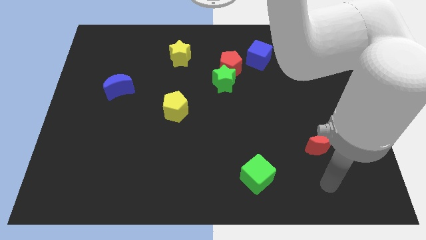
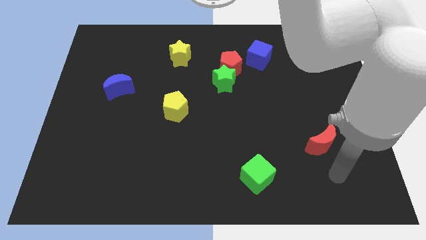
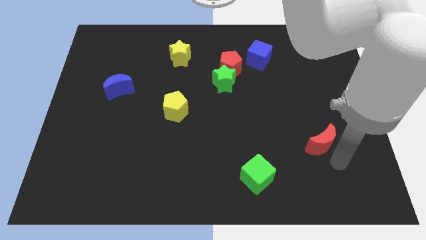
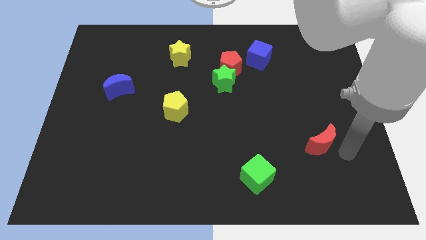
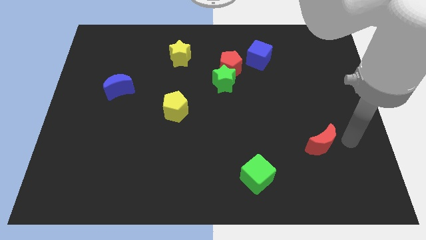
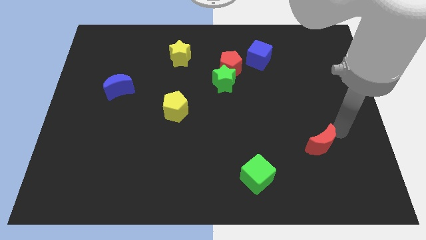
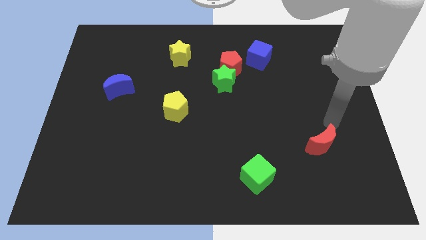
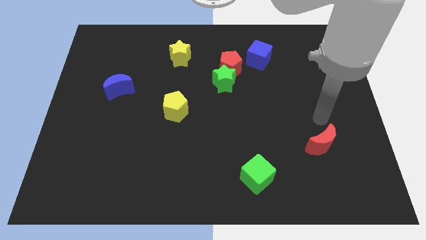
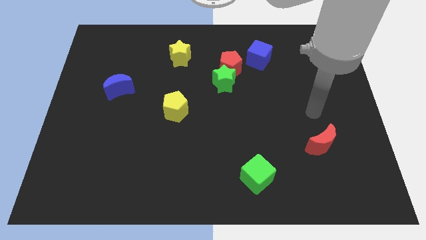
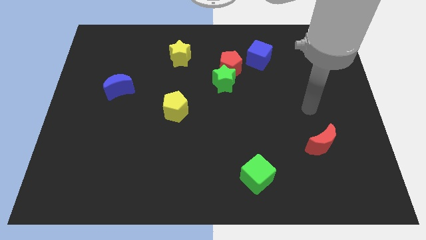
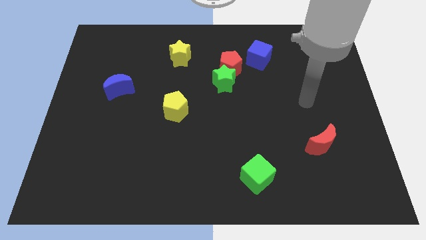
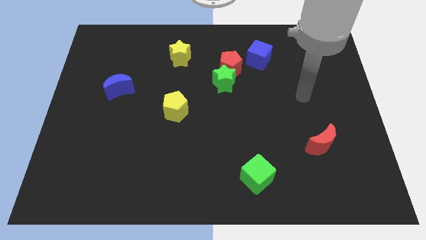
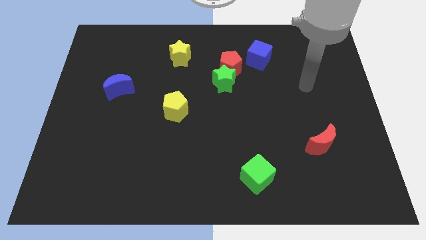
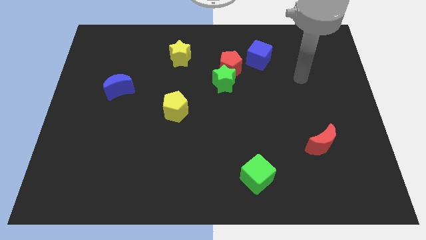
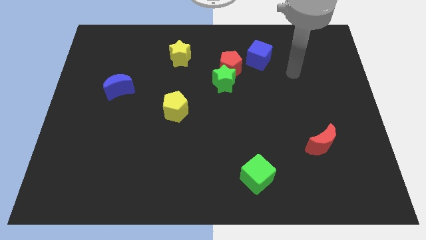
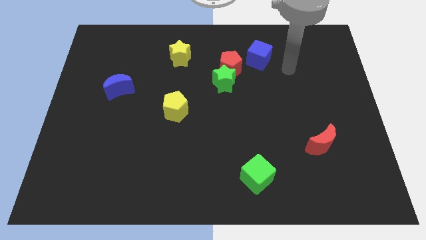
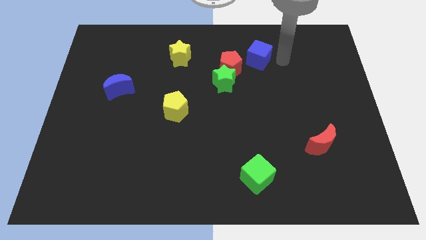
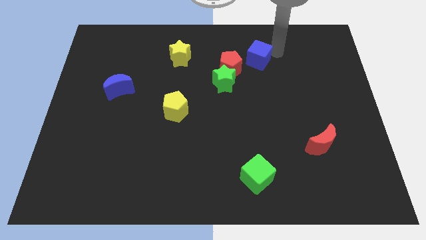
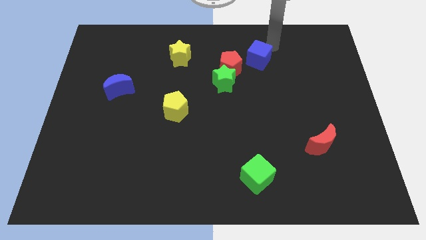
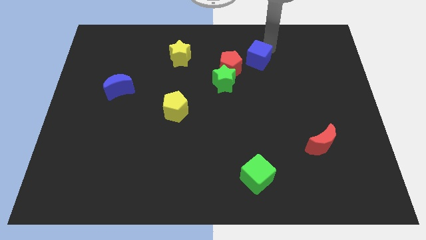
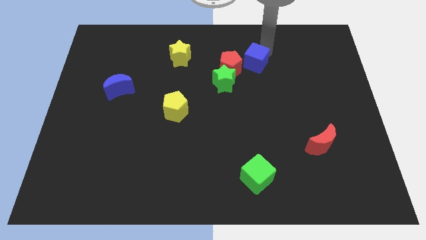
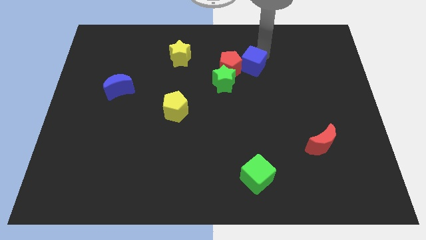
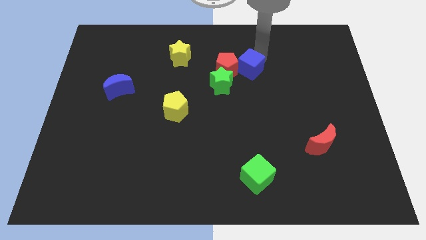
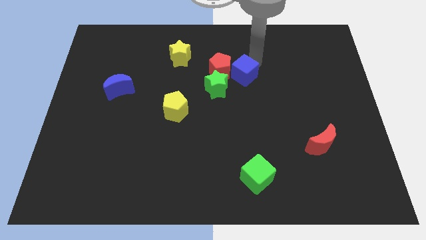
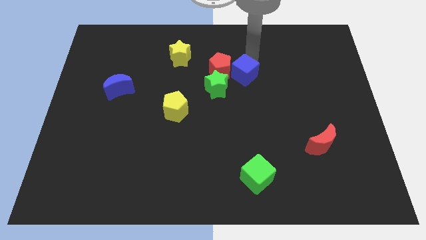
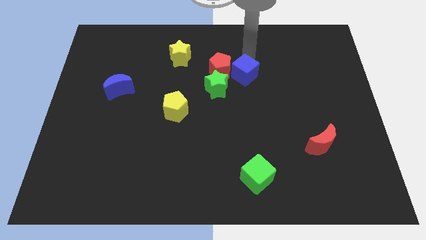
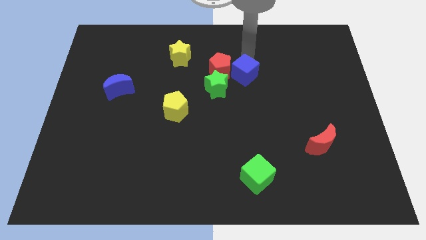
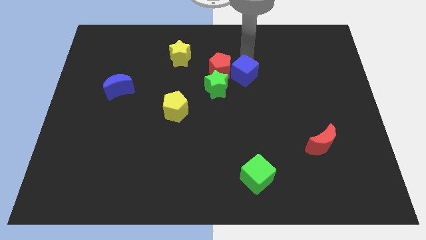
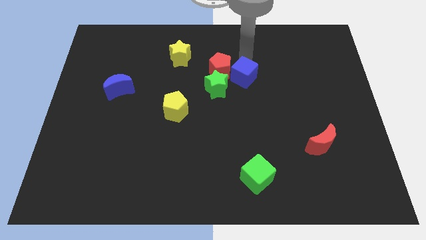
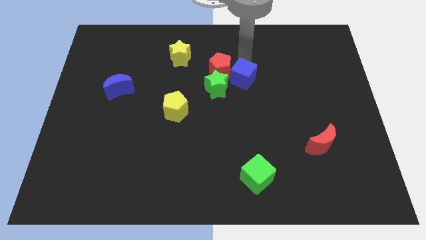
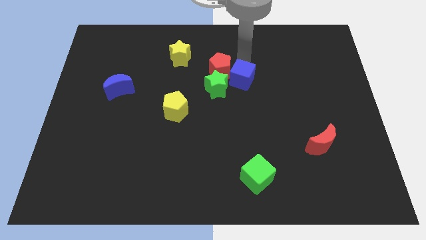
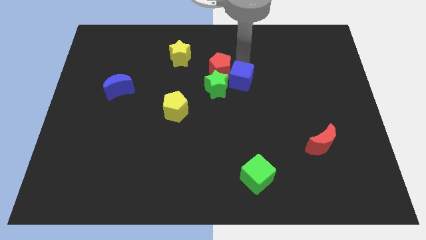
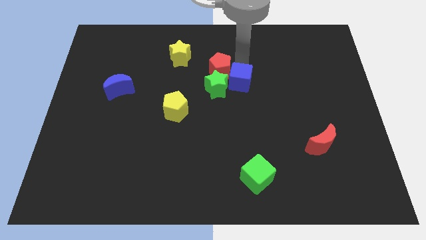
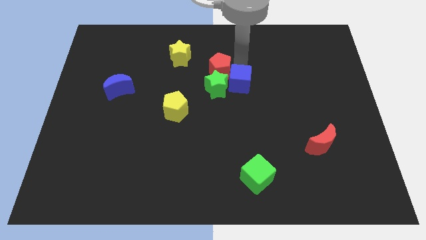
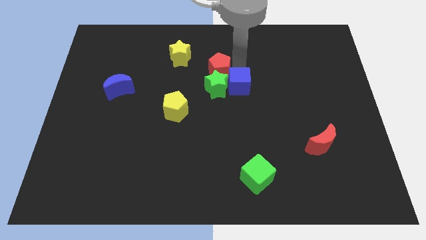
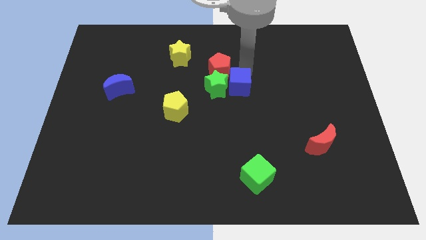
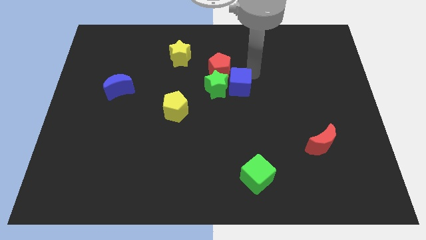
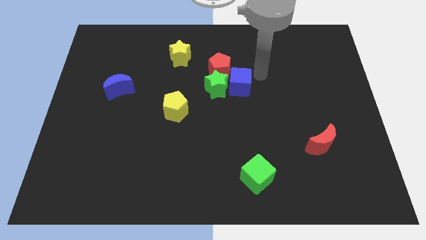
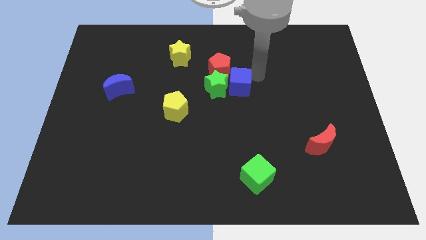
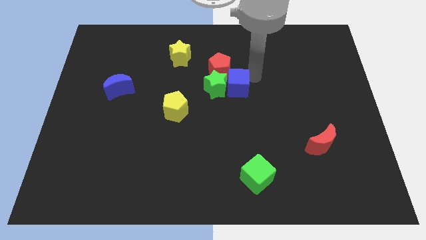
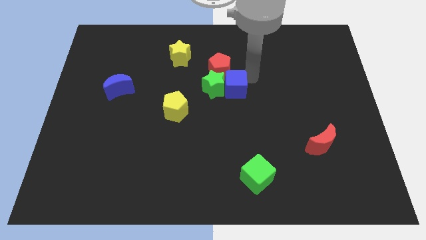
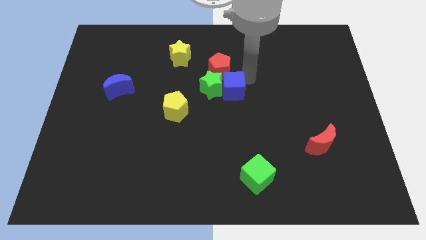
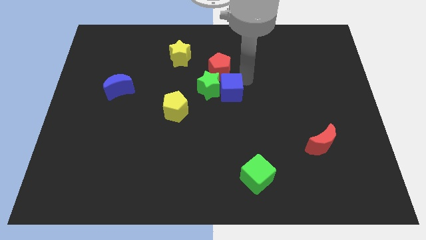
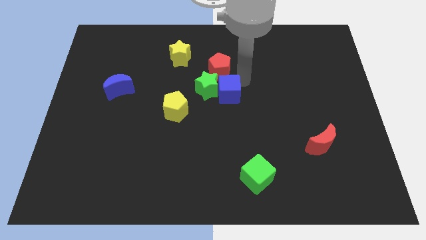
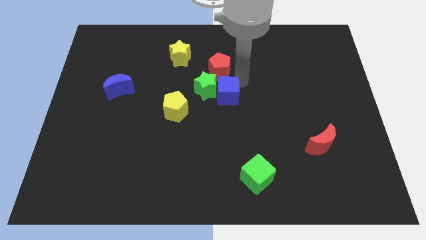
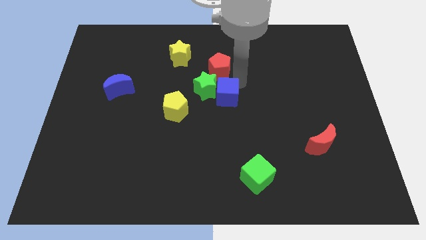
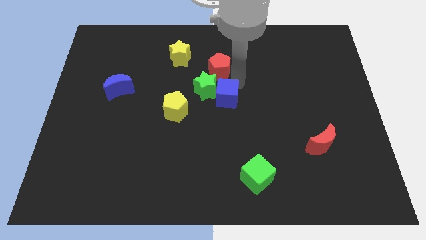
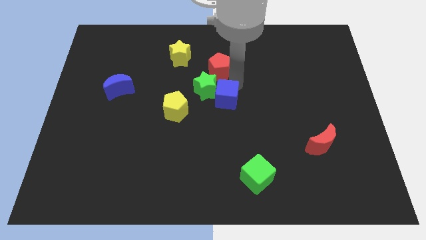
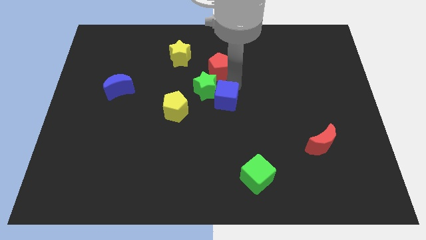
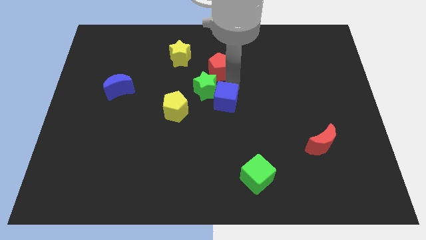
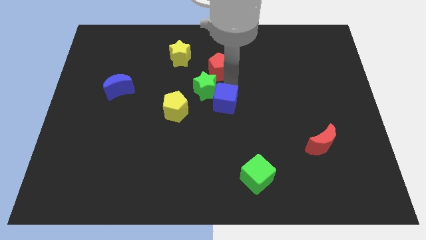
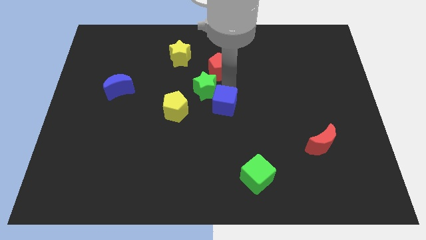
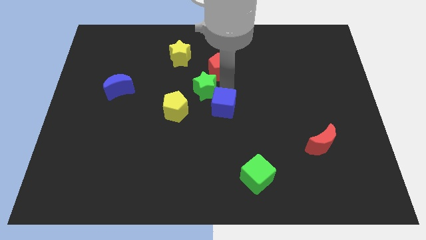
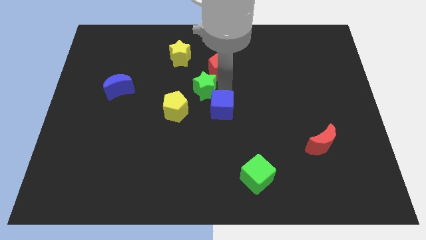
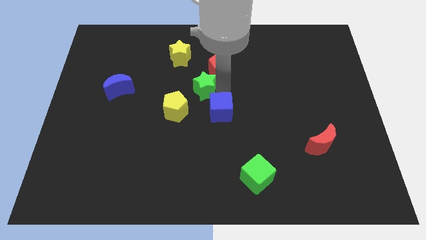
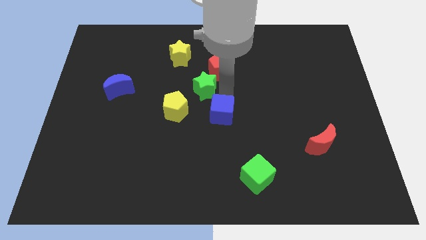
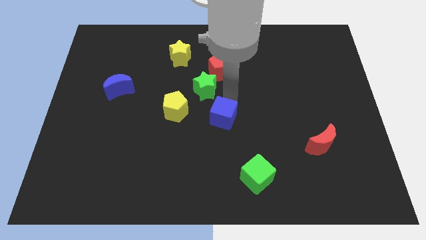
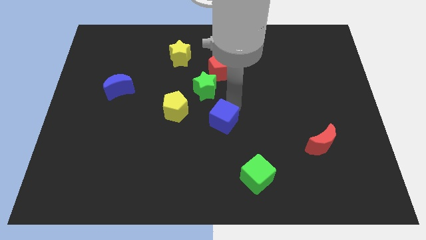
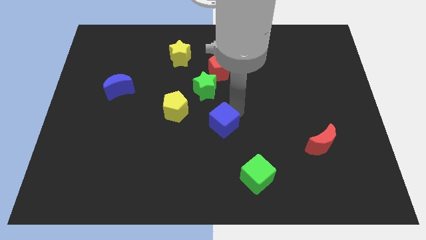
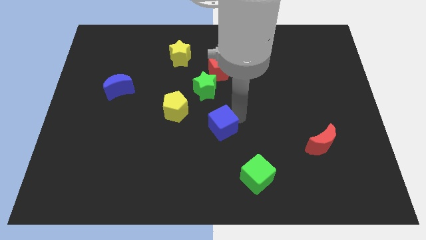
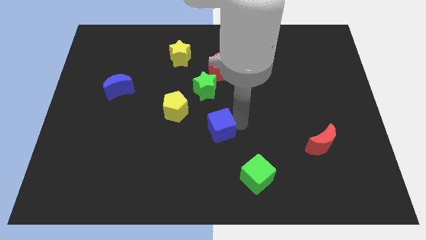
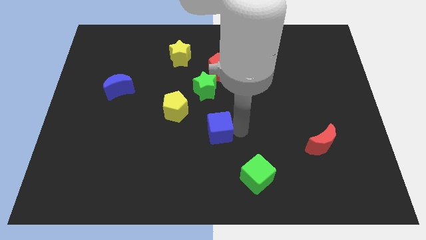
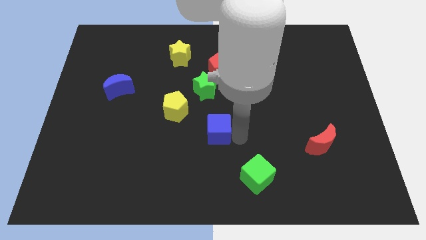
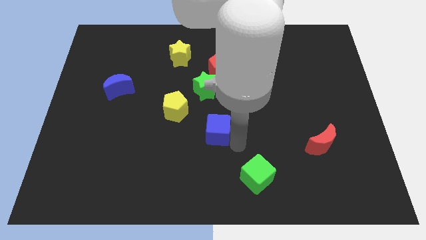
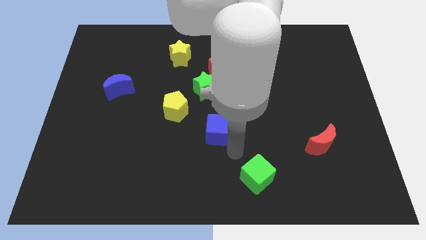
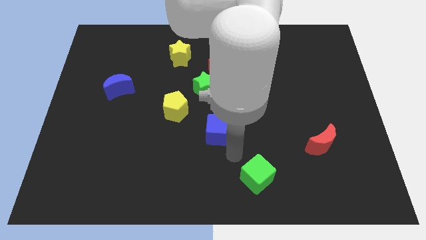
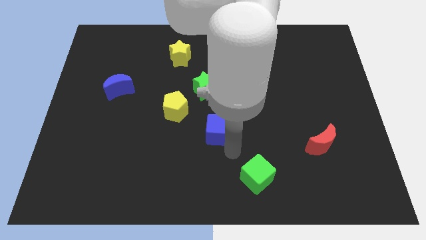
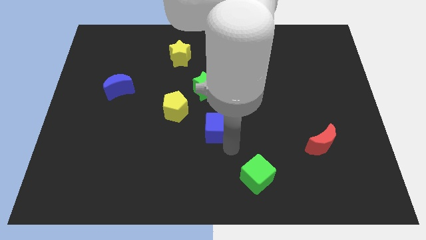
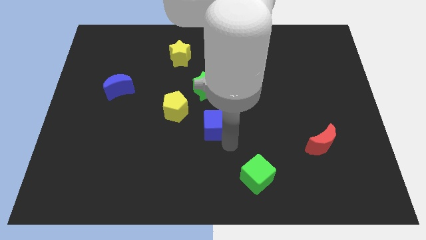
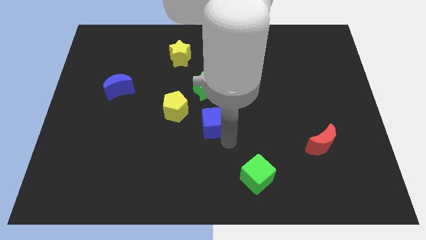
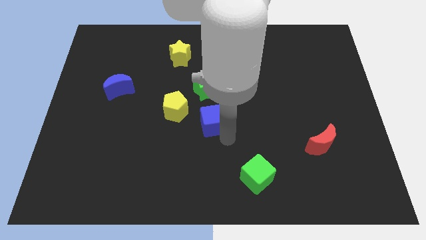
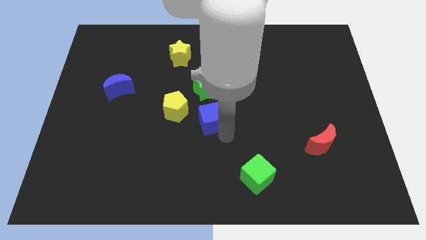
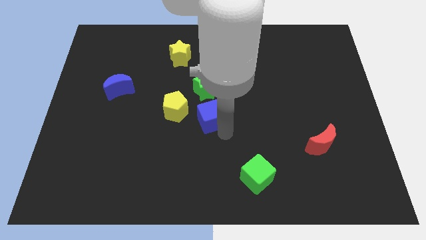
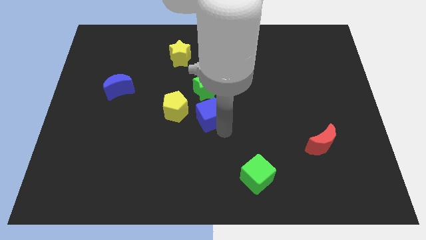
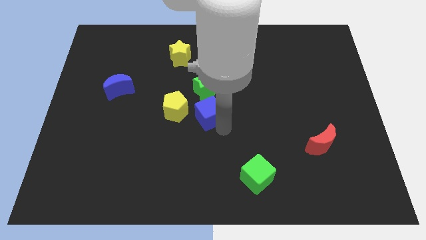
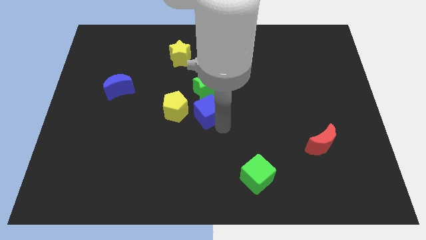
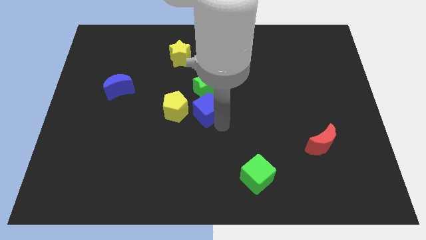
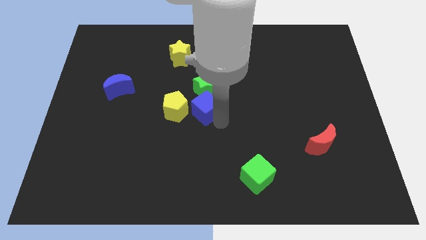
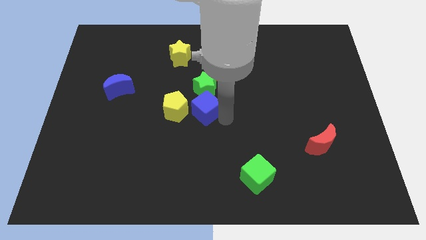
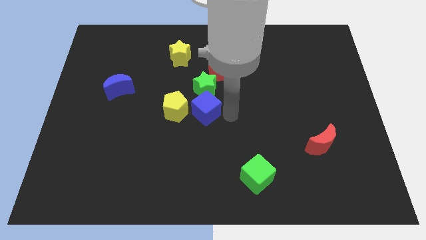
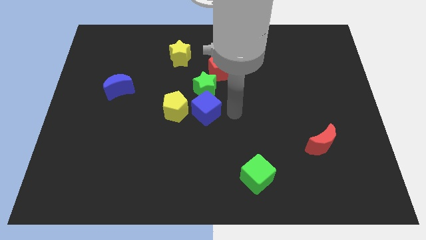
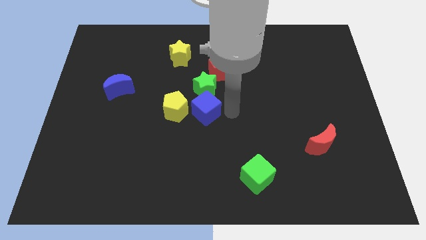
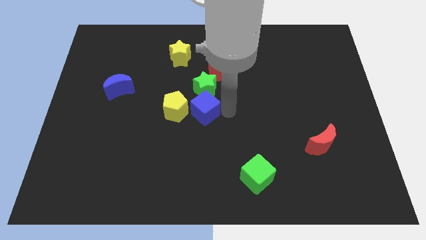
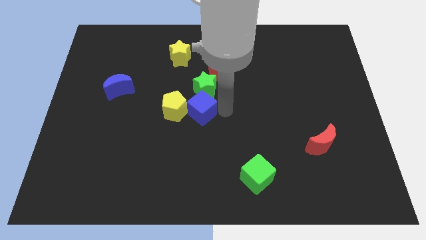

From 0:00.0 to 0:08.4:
put the blue cube close to the yellow pentagon
